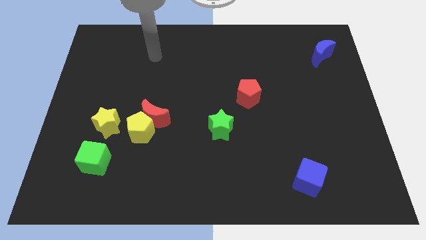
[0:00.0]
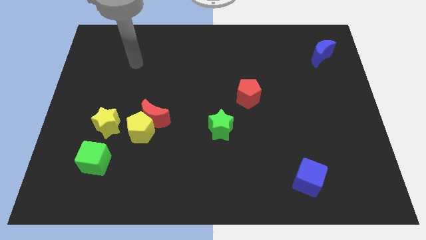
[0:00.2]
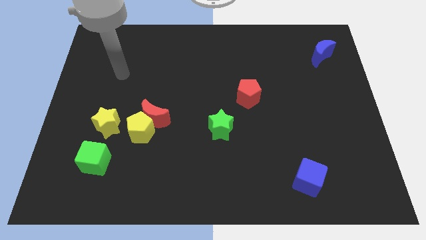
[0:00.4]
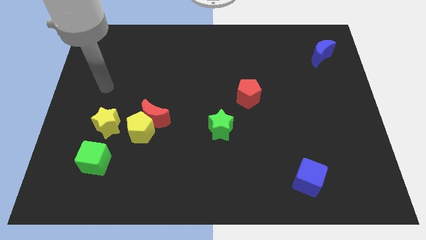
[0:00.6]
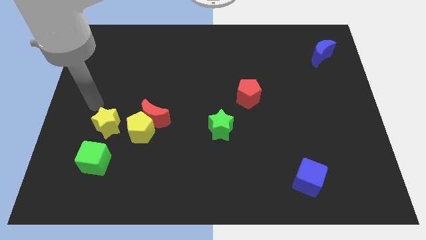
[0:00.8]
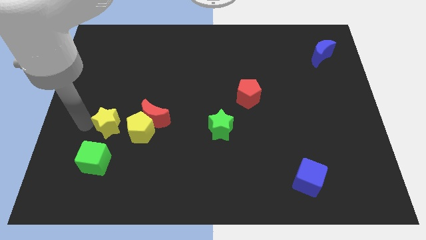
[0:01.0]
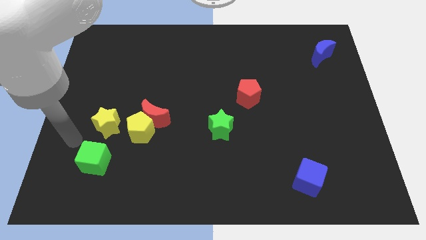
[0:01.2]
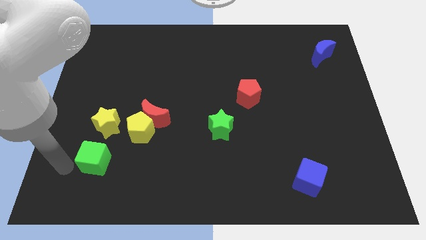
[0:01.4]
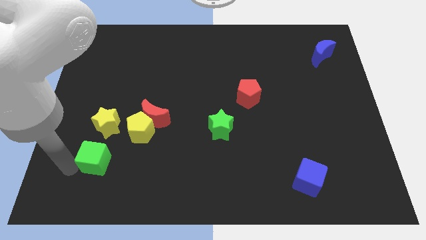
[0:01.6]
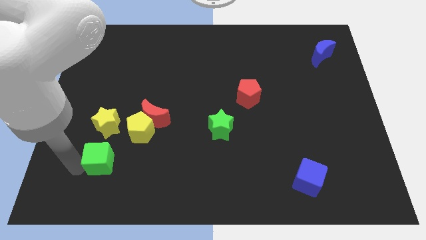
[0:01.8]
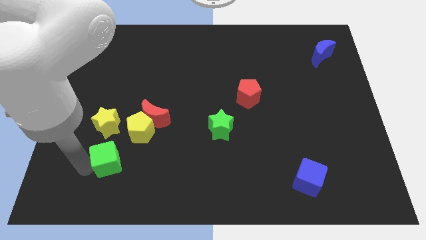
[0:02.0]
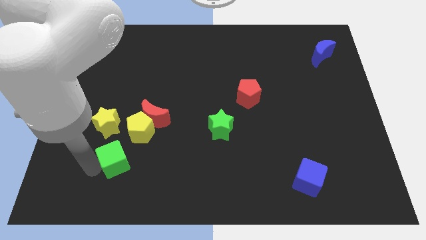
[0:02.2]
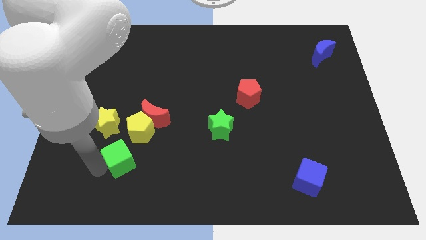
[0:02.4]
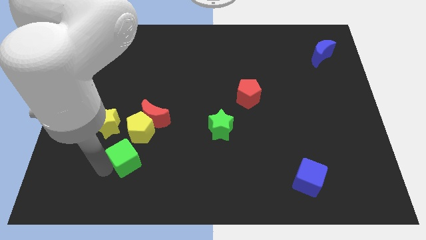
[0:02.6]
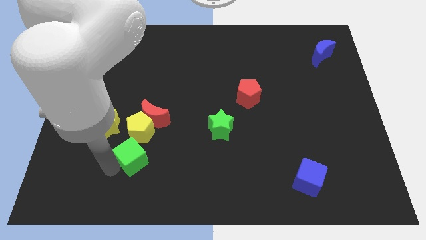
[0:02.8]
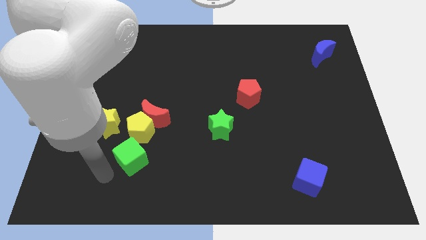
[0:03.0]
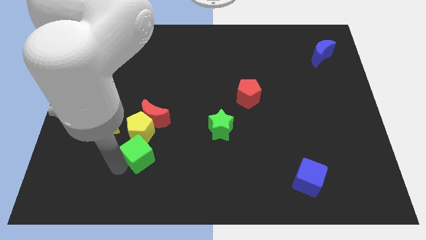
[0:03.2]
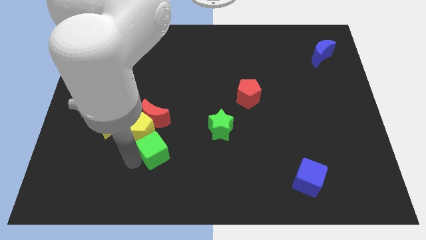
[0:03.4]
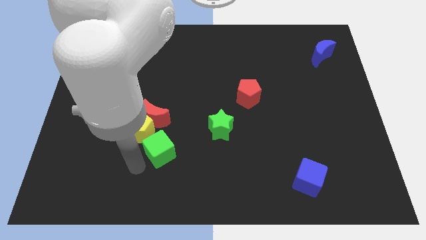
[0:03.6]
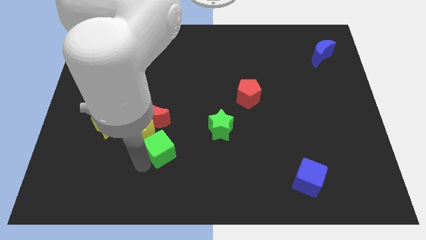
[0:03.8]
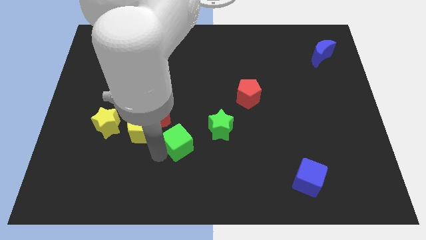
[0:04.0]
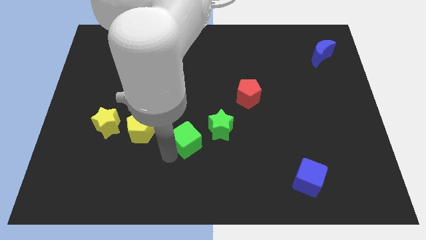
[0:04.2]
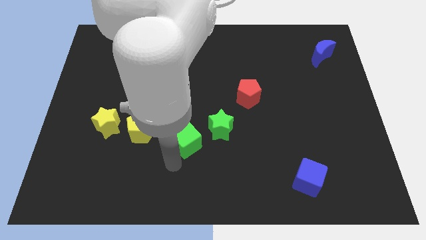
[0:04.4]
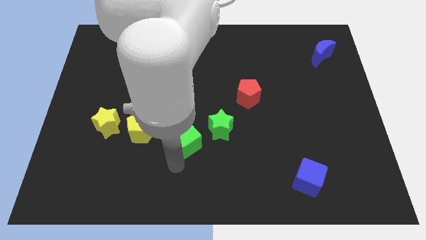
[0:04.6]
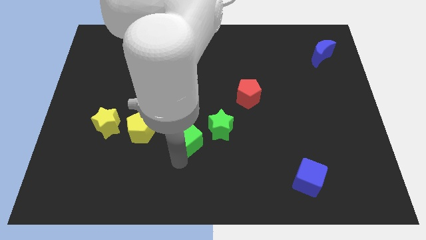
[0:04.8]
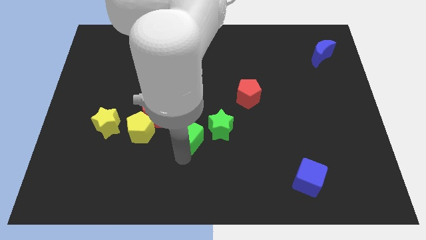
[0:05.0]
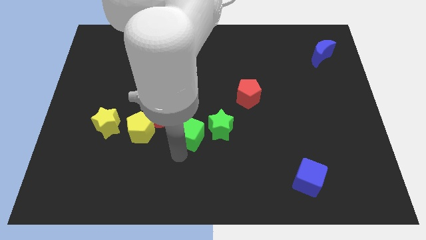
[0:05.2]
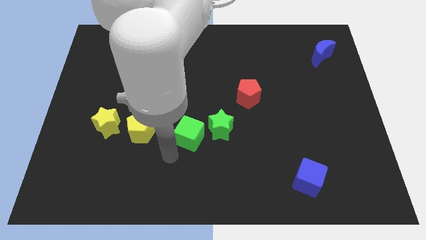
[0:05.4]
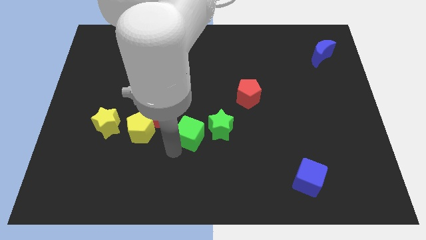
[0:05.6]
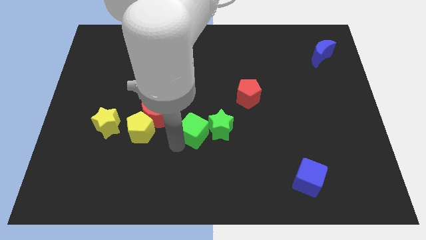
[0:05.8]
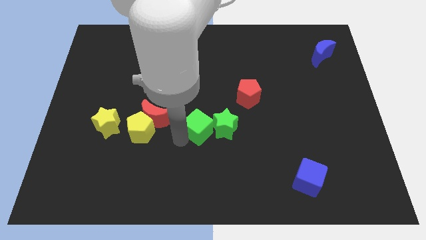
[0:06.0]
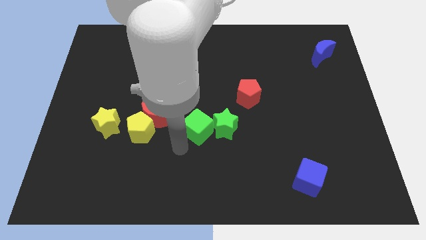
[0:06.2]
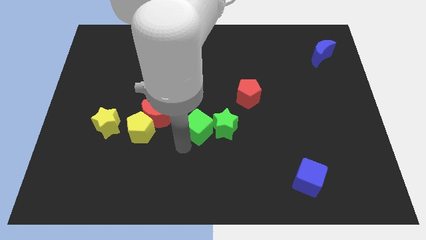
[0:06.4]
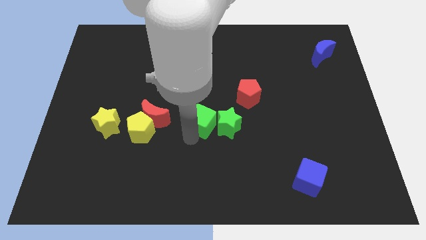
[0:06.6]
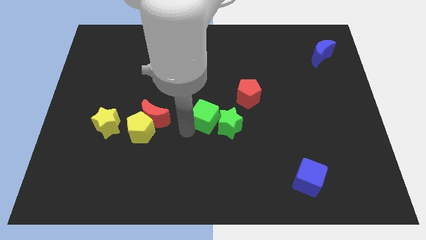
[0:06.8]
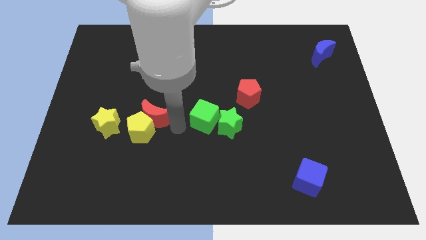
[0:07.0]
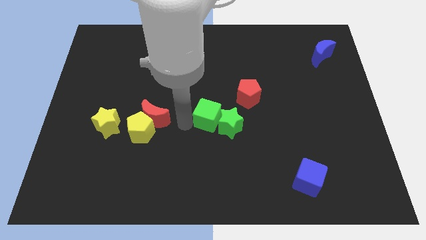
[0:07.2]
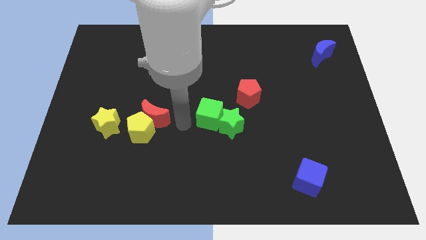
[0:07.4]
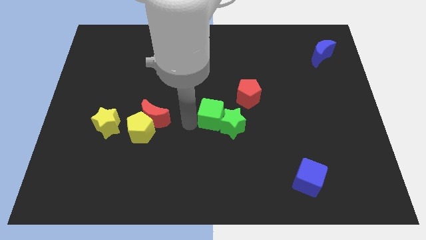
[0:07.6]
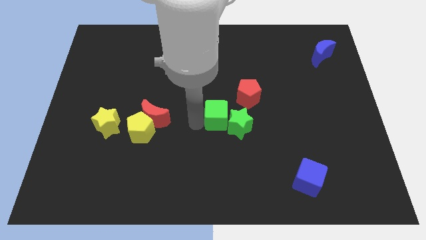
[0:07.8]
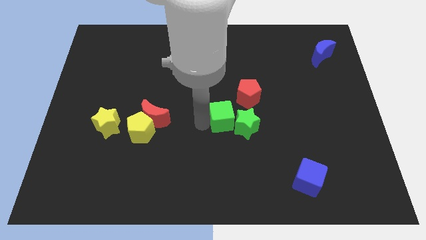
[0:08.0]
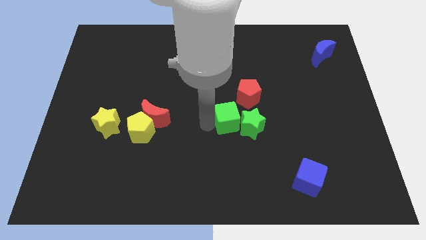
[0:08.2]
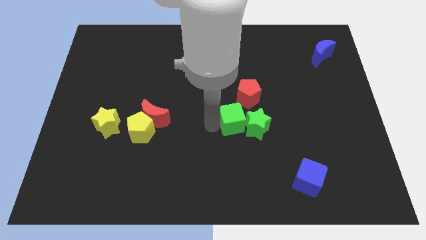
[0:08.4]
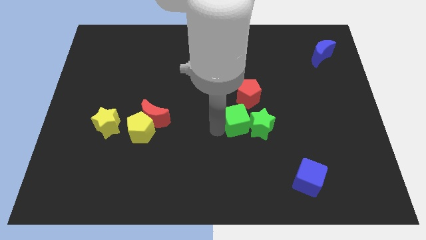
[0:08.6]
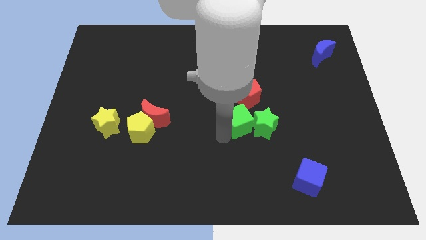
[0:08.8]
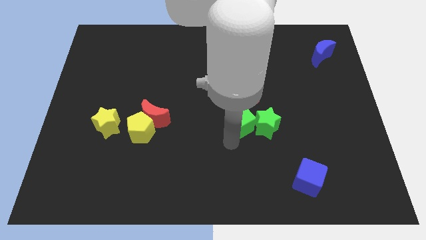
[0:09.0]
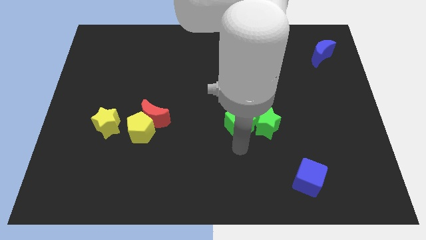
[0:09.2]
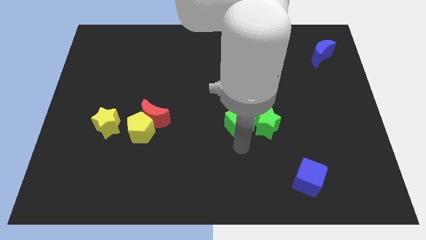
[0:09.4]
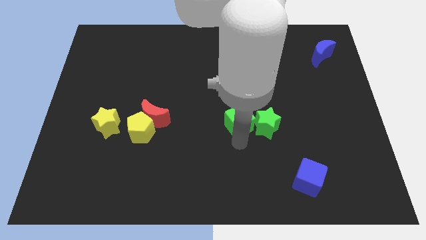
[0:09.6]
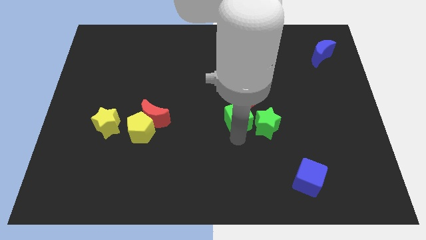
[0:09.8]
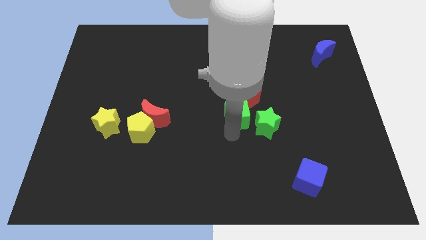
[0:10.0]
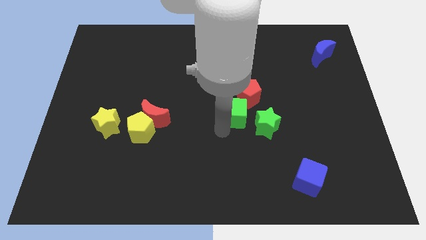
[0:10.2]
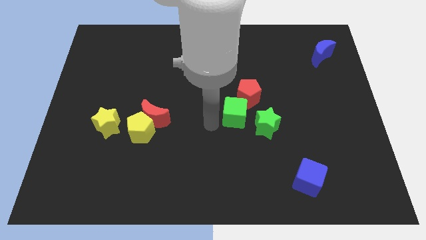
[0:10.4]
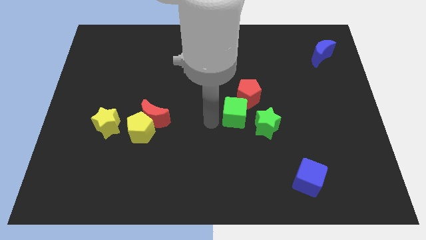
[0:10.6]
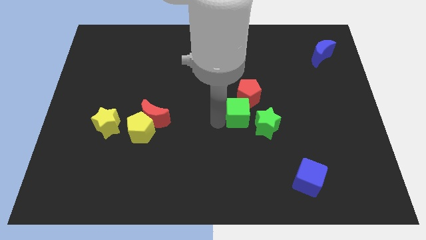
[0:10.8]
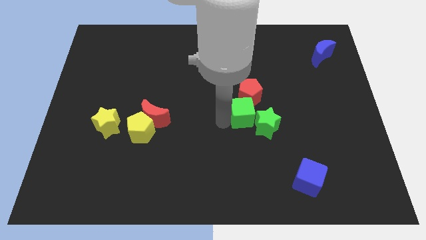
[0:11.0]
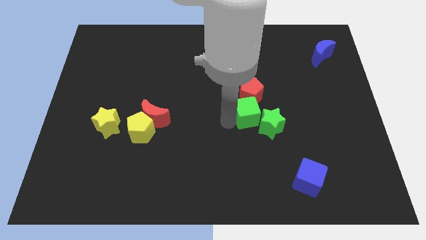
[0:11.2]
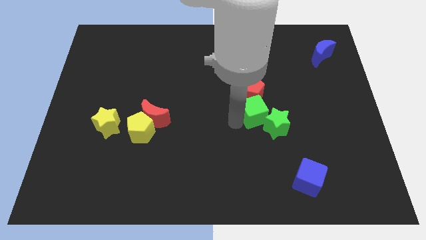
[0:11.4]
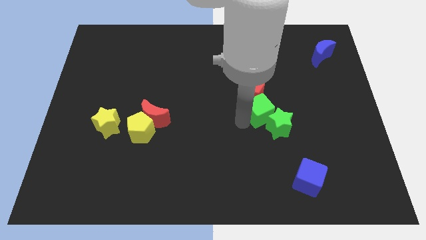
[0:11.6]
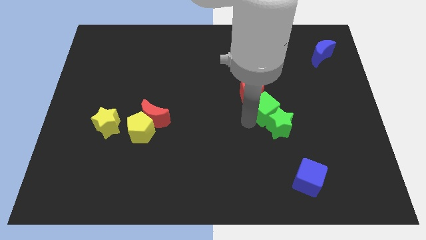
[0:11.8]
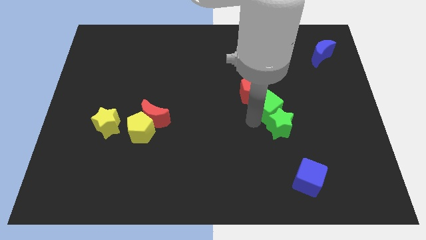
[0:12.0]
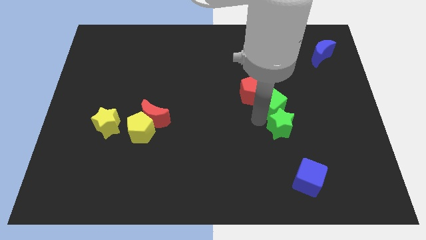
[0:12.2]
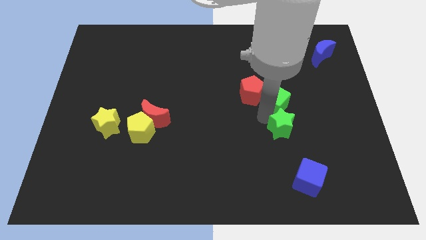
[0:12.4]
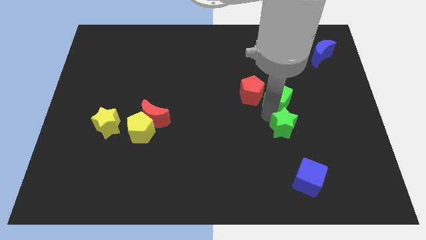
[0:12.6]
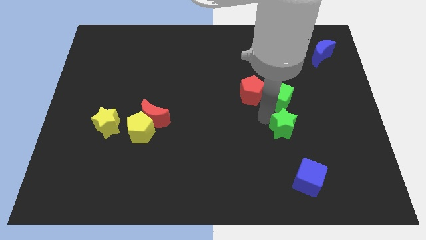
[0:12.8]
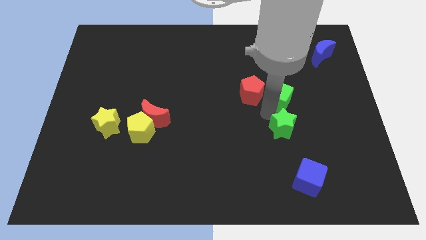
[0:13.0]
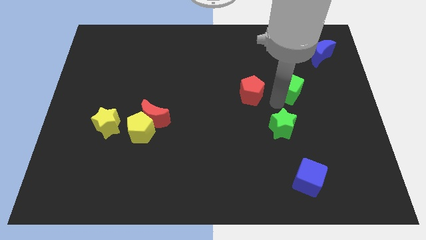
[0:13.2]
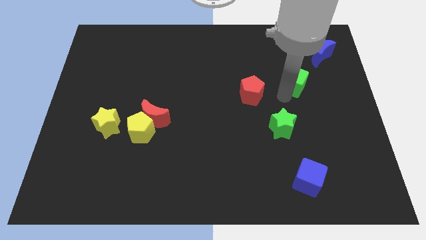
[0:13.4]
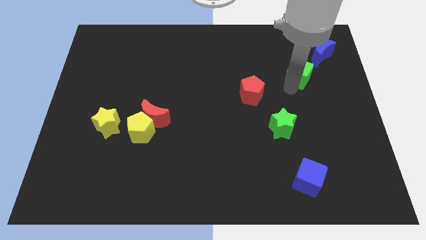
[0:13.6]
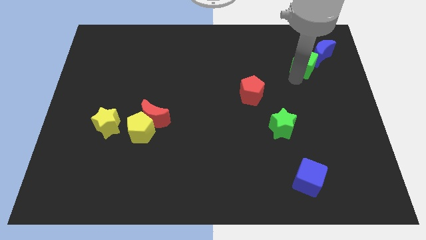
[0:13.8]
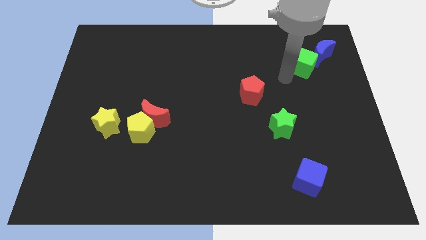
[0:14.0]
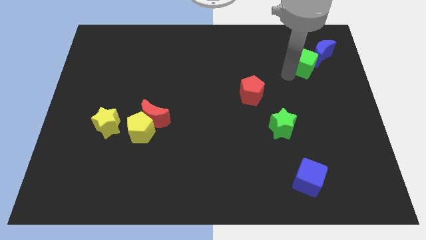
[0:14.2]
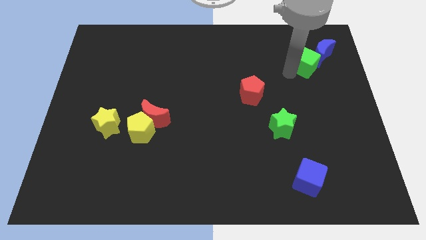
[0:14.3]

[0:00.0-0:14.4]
move the green cube towards the blue moon
